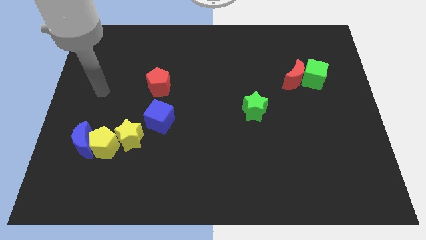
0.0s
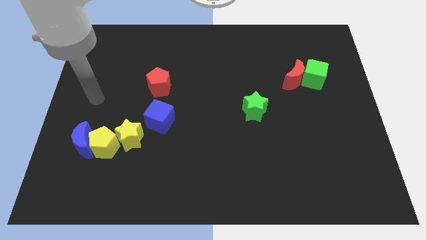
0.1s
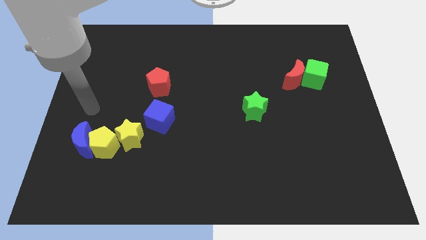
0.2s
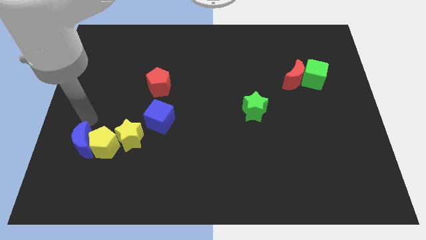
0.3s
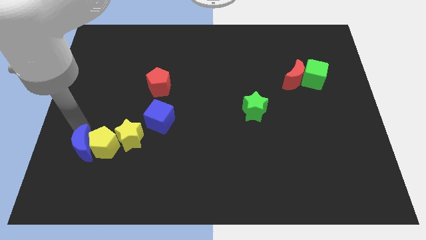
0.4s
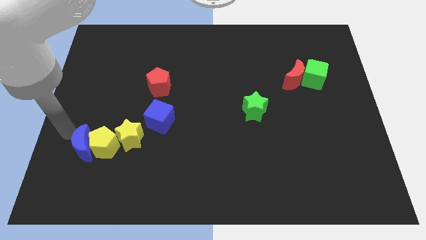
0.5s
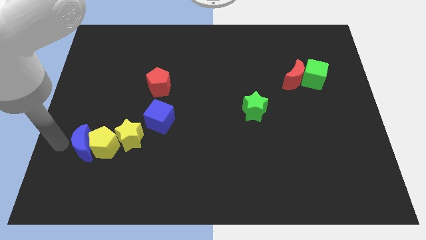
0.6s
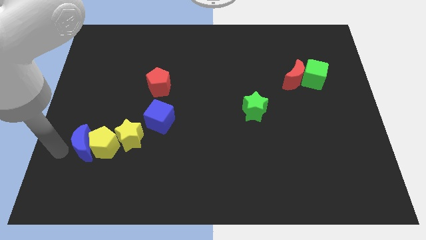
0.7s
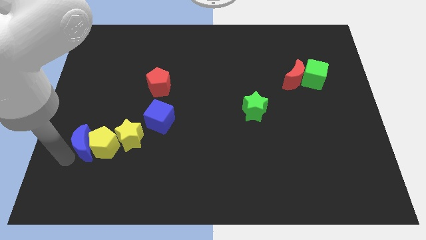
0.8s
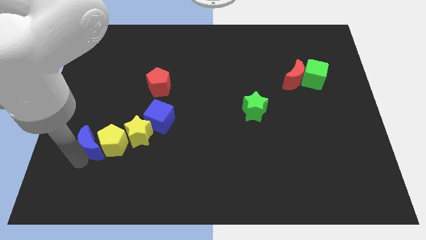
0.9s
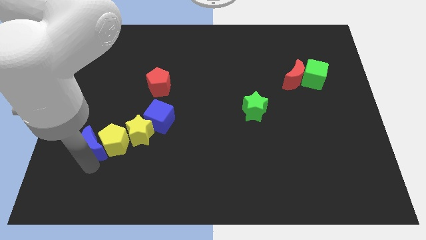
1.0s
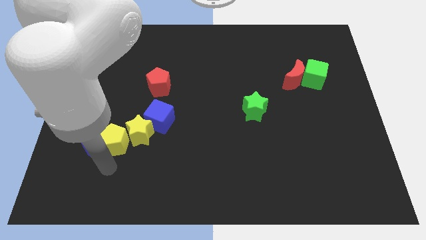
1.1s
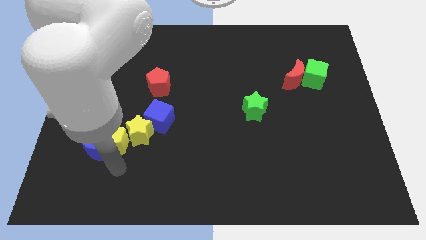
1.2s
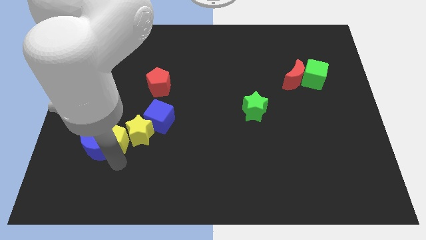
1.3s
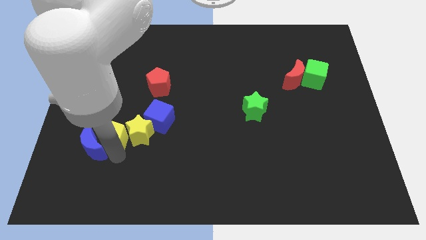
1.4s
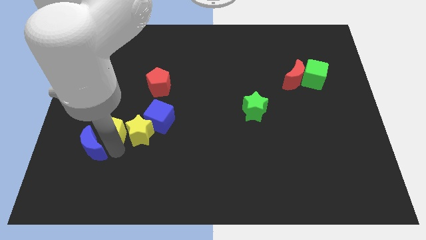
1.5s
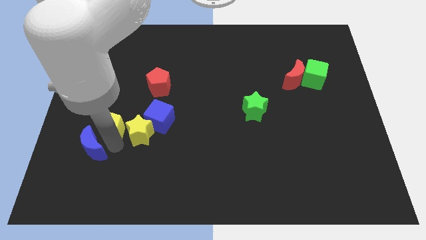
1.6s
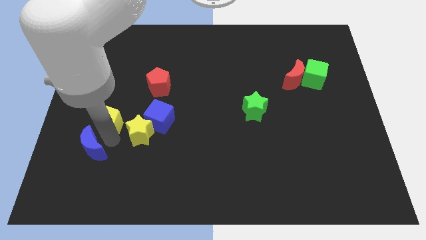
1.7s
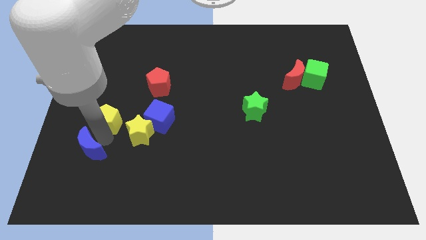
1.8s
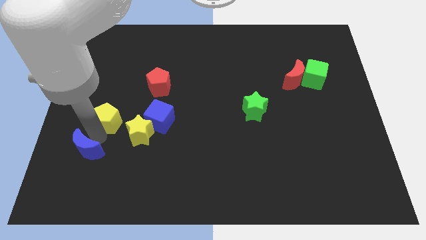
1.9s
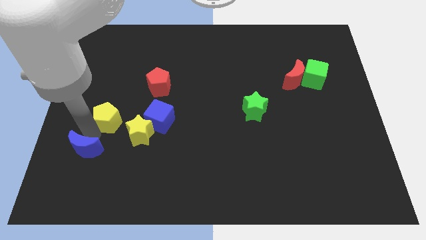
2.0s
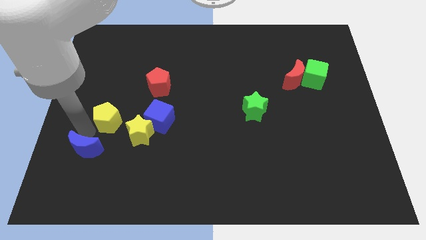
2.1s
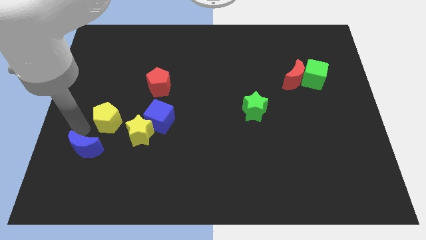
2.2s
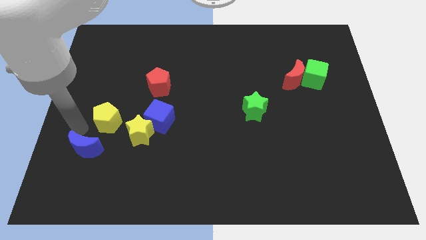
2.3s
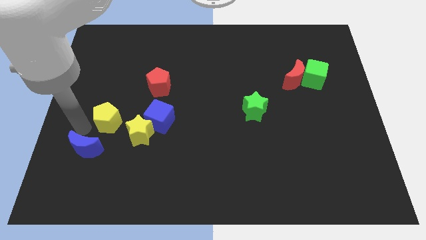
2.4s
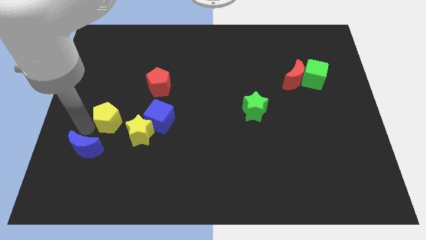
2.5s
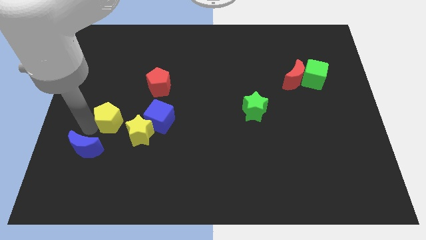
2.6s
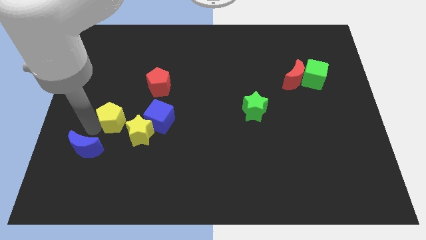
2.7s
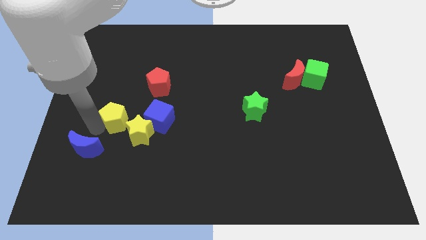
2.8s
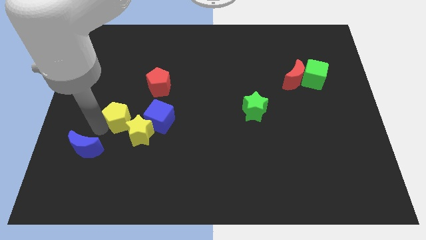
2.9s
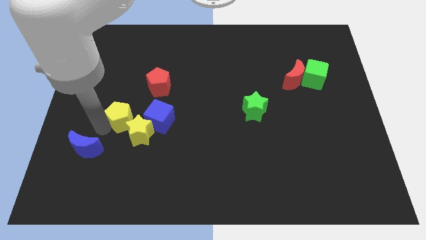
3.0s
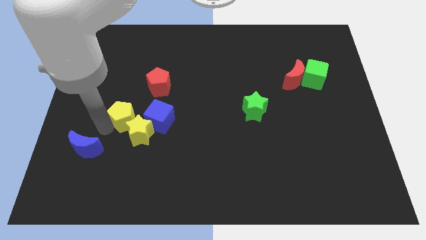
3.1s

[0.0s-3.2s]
push the yellow pentagon somewhat up and right diagonally

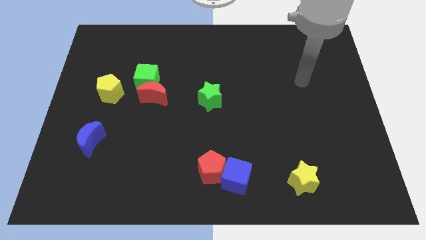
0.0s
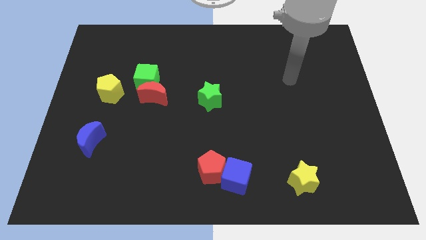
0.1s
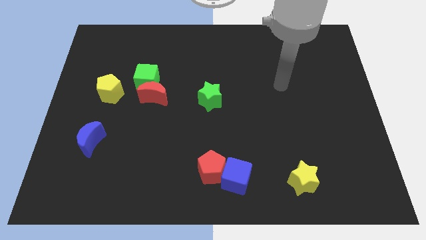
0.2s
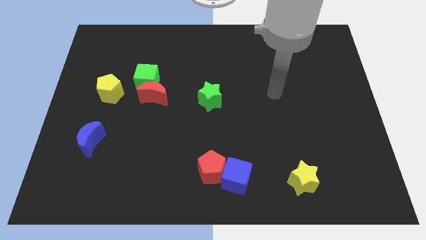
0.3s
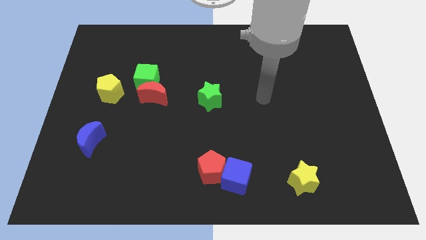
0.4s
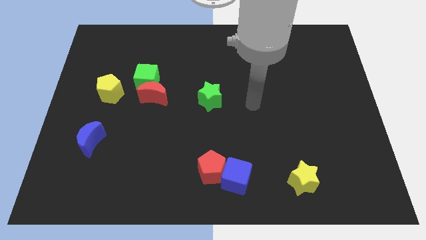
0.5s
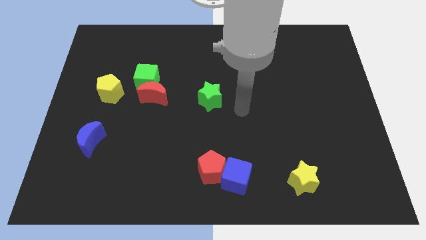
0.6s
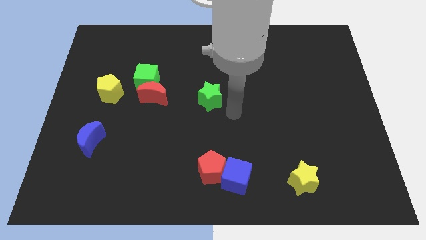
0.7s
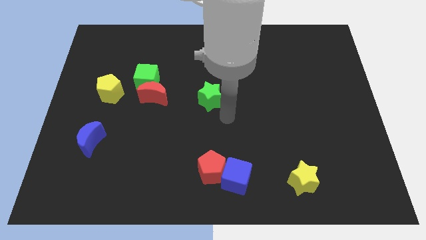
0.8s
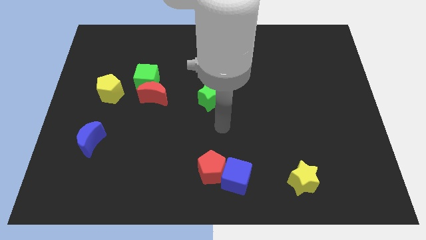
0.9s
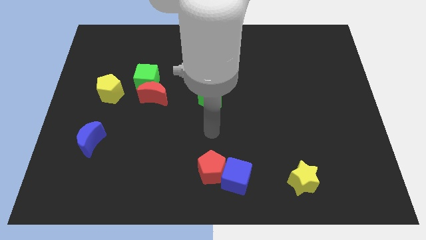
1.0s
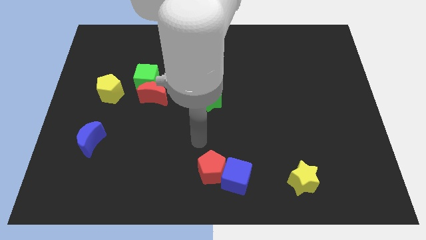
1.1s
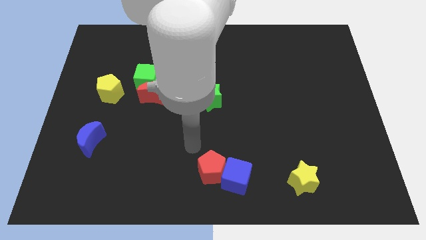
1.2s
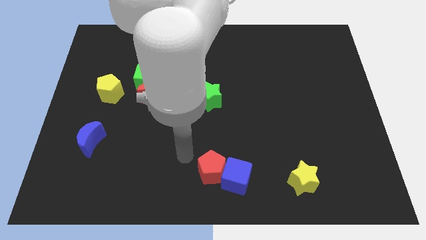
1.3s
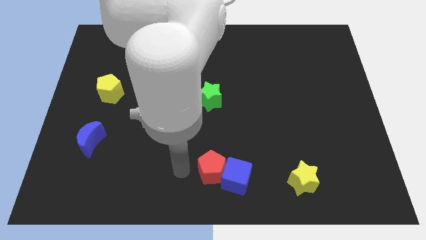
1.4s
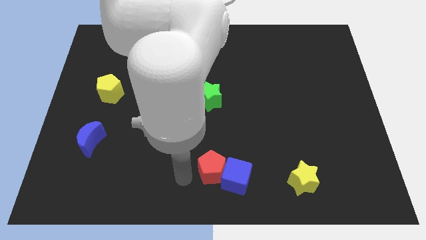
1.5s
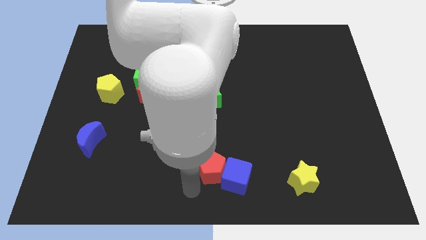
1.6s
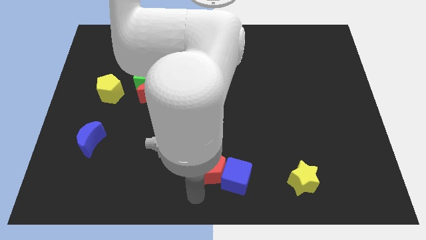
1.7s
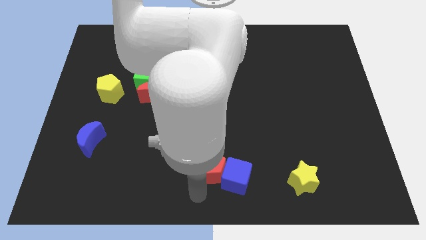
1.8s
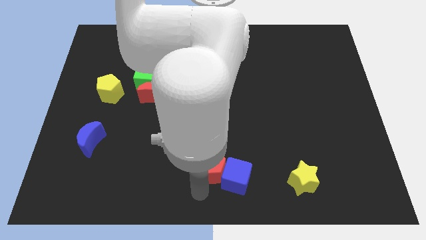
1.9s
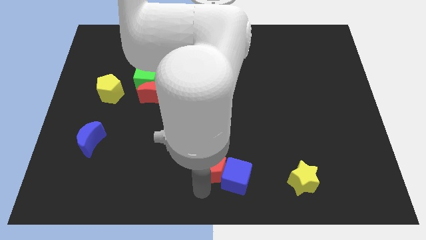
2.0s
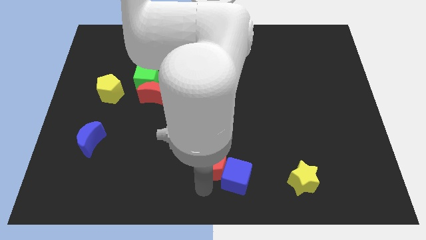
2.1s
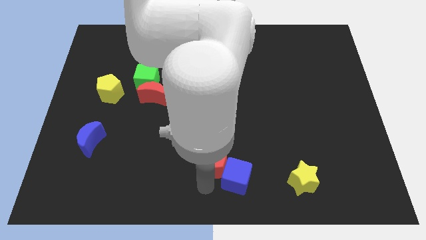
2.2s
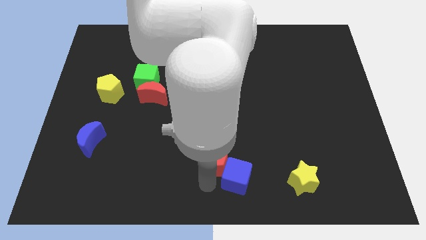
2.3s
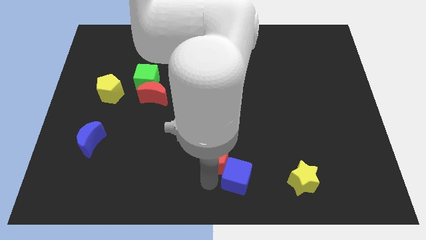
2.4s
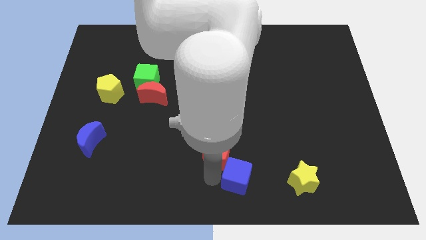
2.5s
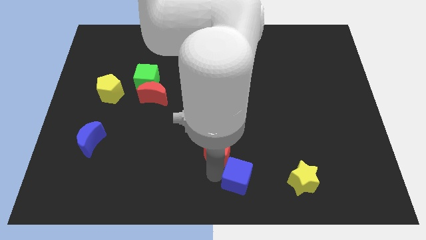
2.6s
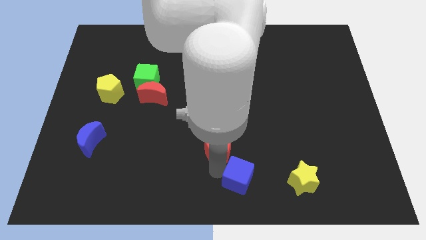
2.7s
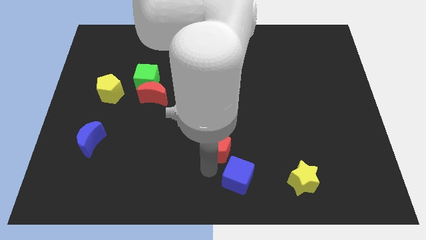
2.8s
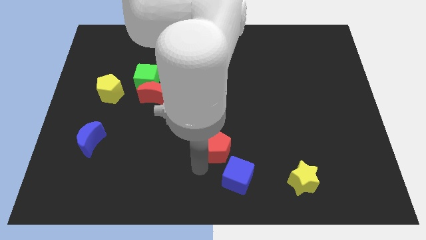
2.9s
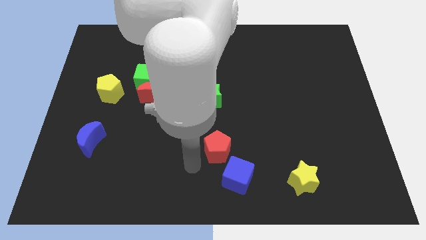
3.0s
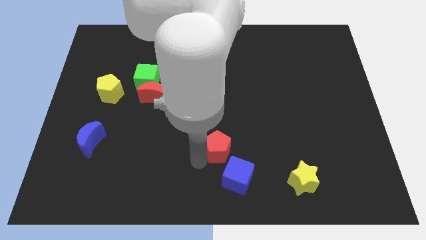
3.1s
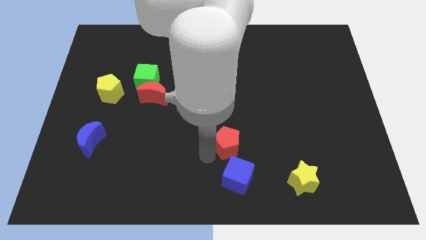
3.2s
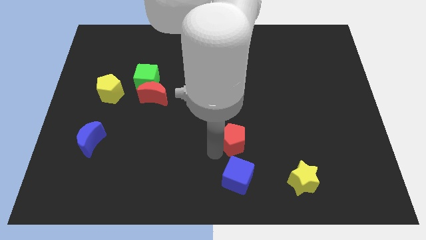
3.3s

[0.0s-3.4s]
slide the red pentagon upwards and to the right diagonally a little bit

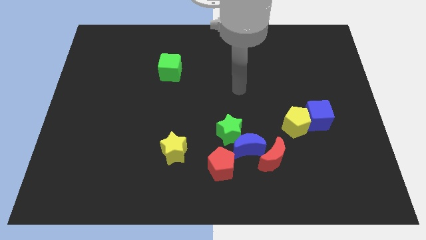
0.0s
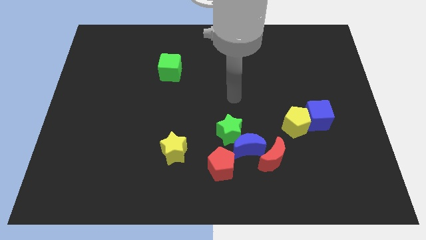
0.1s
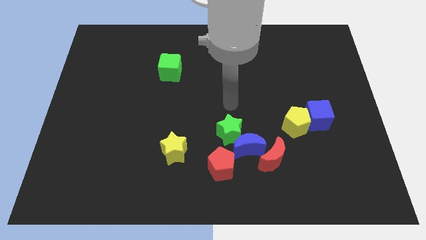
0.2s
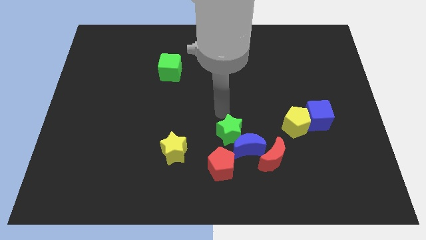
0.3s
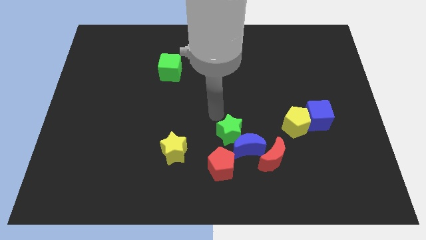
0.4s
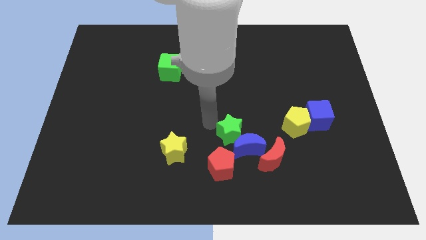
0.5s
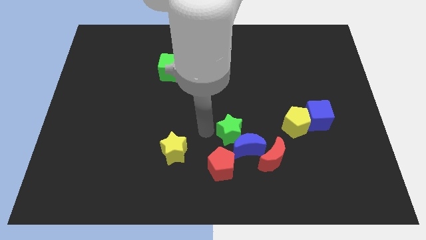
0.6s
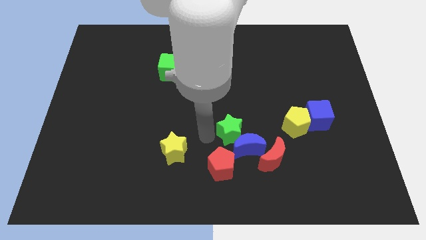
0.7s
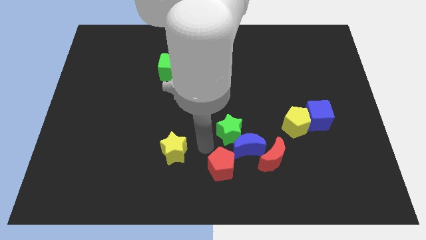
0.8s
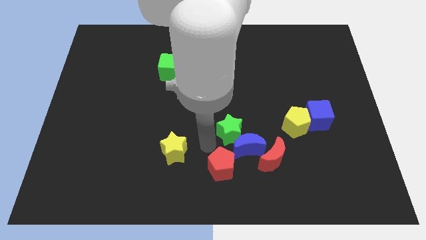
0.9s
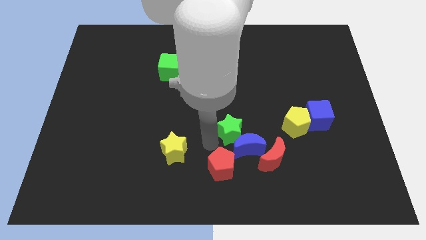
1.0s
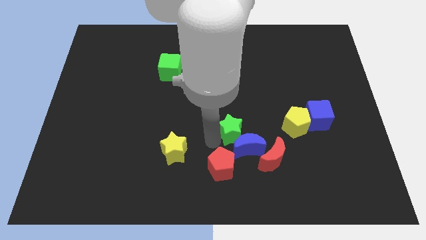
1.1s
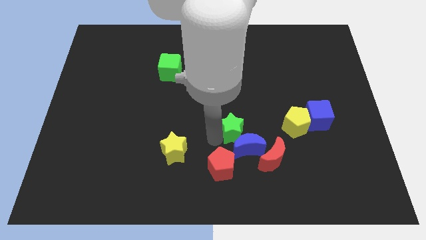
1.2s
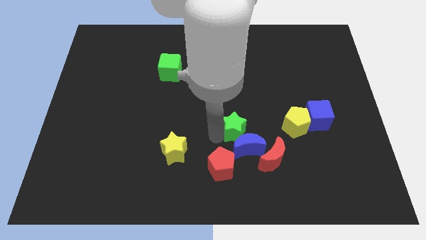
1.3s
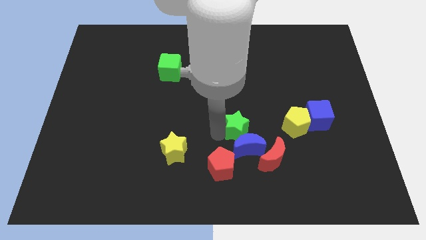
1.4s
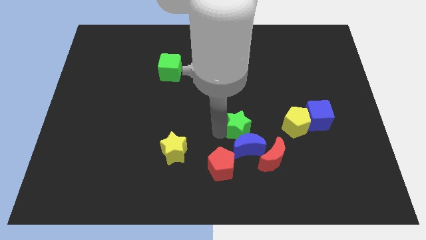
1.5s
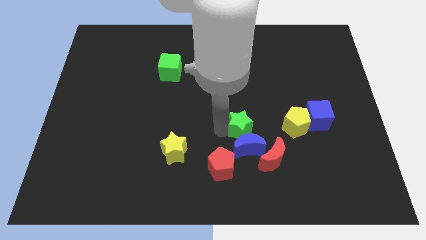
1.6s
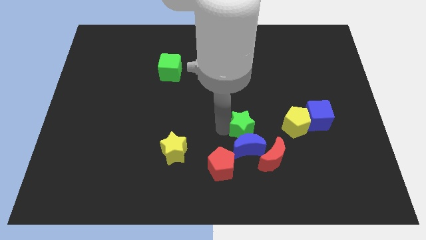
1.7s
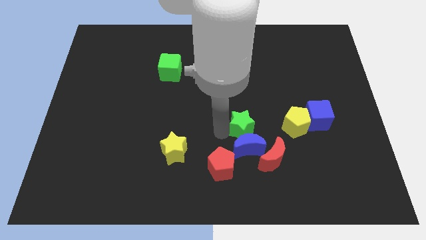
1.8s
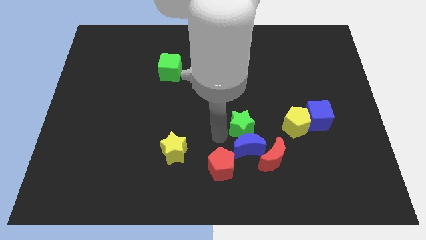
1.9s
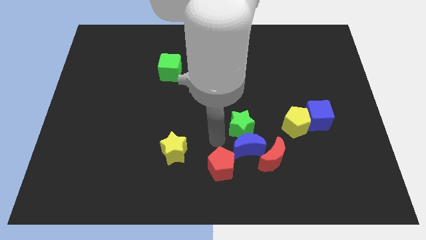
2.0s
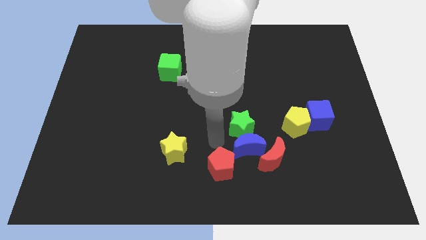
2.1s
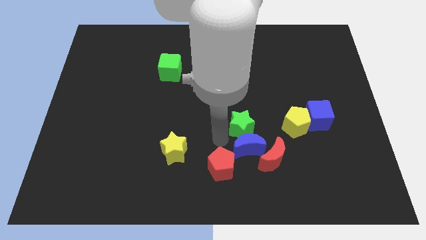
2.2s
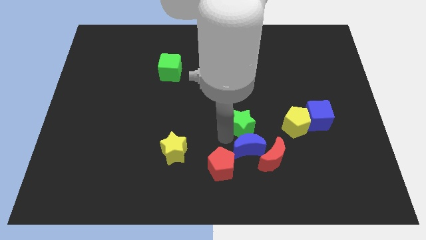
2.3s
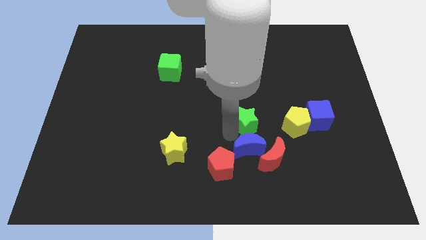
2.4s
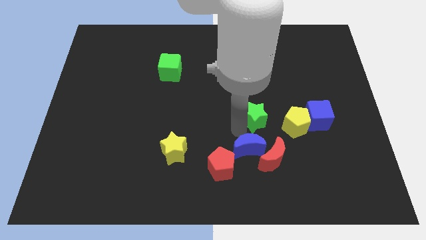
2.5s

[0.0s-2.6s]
slide the green star diagonally up and right somewhat
